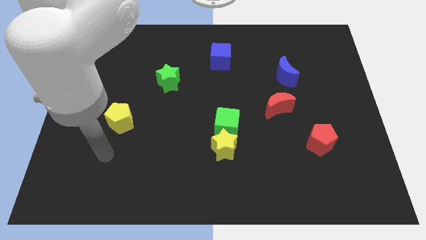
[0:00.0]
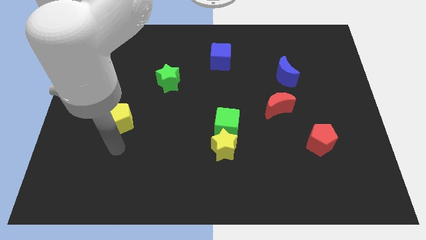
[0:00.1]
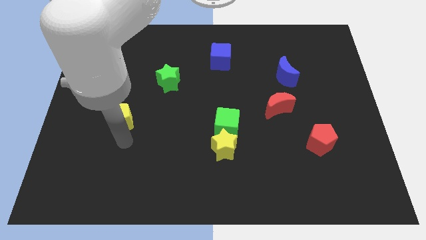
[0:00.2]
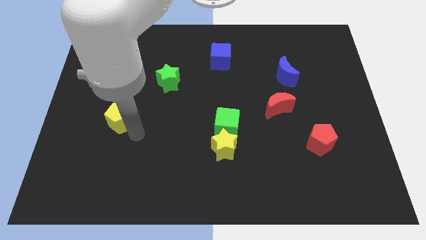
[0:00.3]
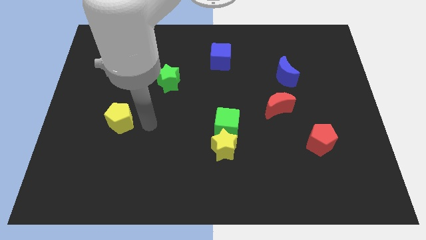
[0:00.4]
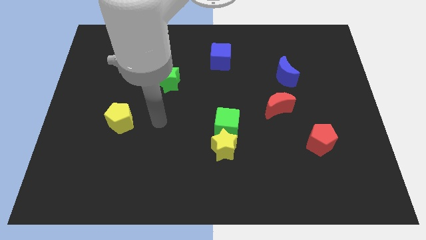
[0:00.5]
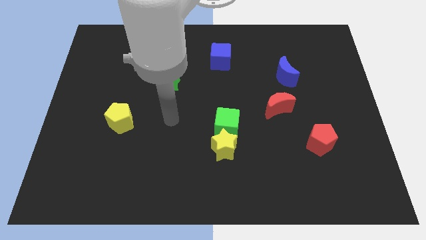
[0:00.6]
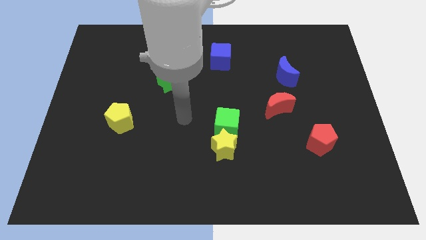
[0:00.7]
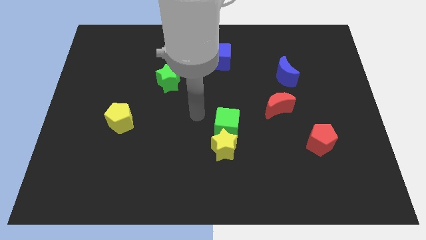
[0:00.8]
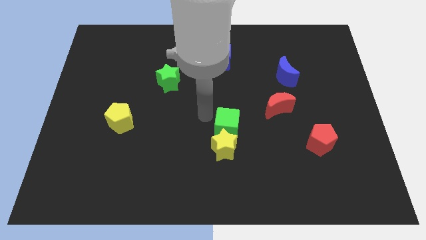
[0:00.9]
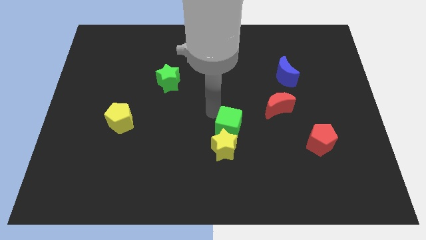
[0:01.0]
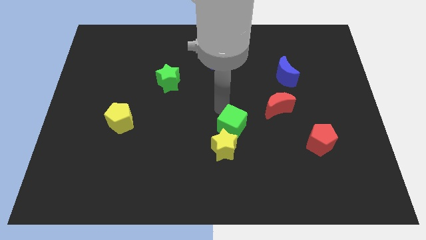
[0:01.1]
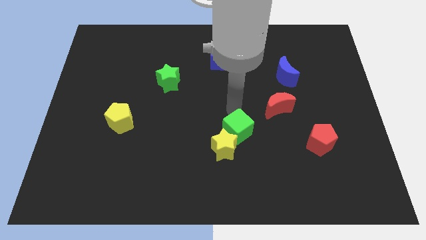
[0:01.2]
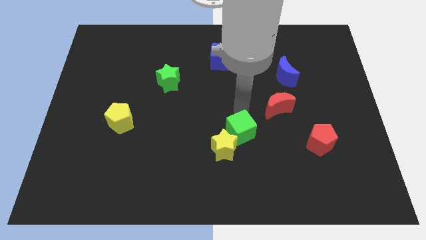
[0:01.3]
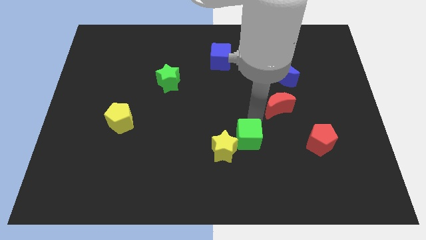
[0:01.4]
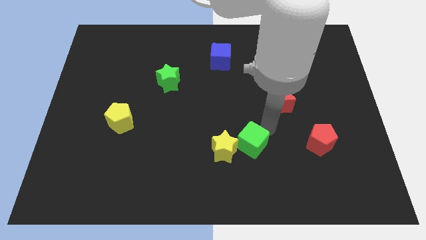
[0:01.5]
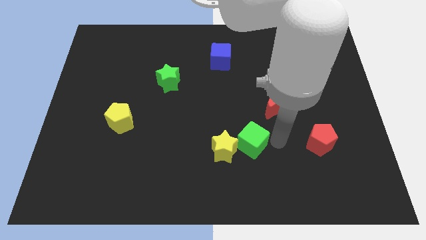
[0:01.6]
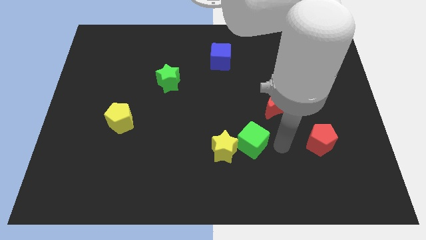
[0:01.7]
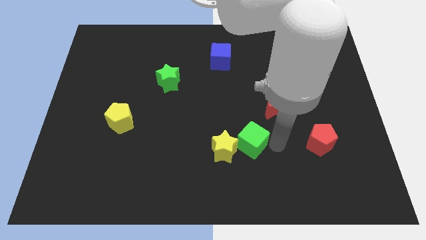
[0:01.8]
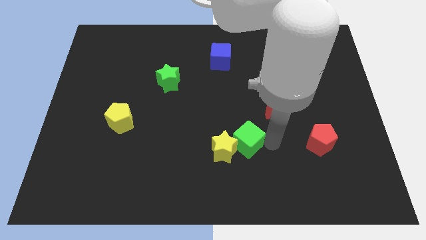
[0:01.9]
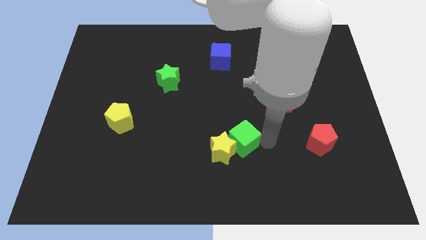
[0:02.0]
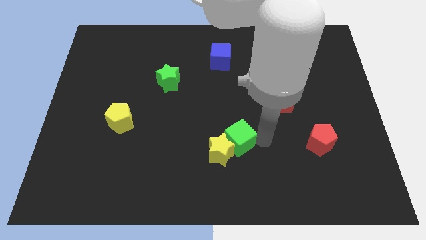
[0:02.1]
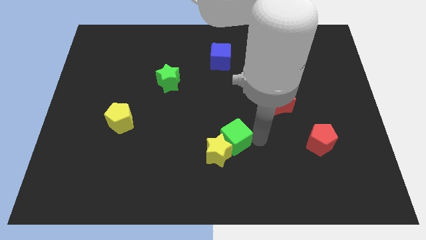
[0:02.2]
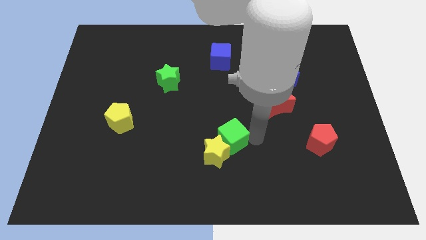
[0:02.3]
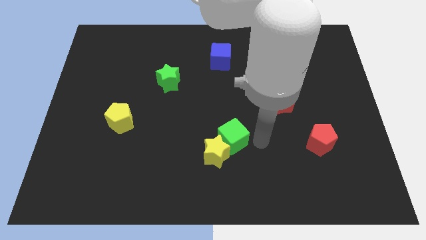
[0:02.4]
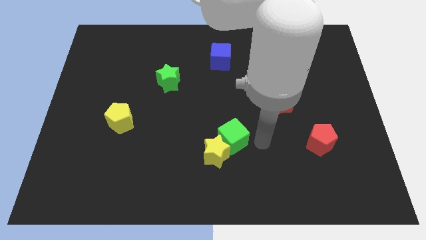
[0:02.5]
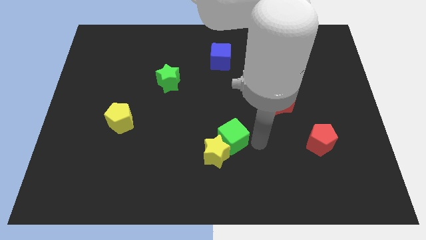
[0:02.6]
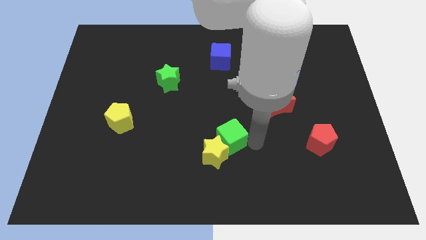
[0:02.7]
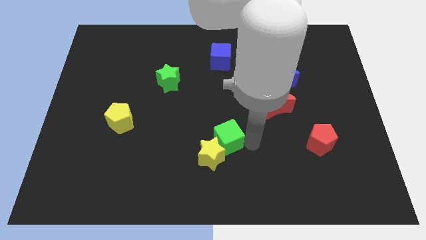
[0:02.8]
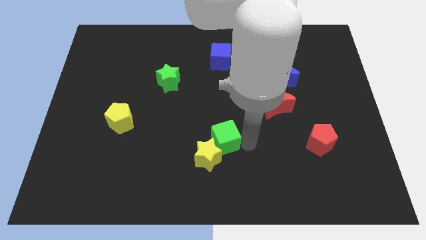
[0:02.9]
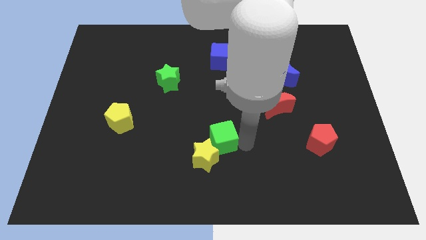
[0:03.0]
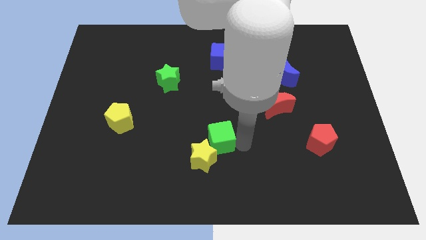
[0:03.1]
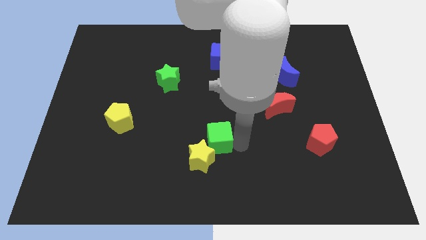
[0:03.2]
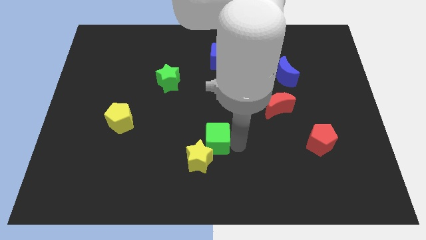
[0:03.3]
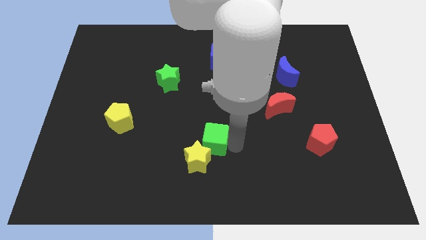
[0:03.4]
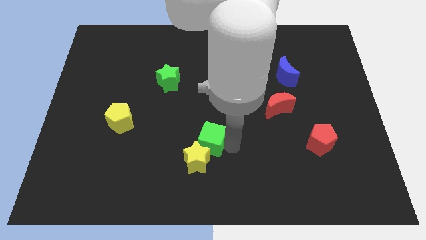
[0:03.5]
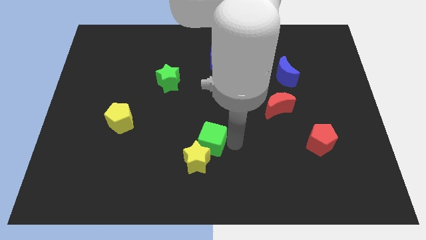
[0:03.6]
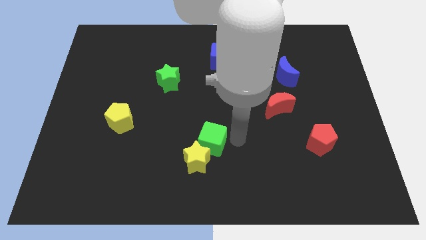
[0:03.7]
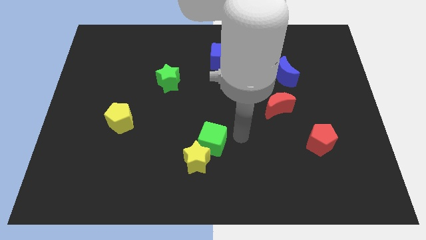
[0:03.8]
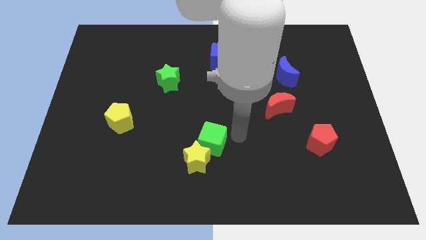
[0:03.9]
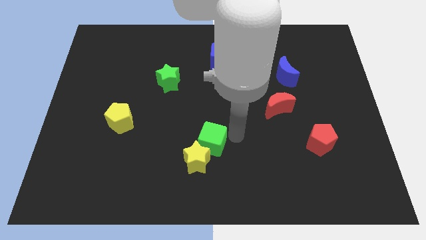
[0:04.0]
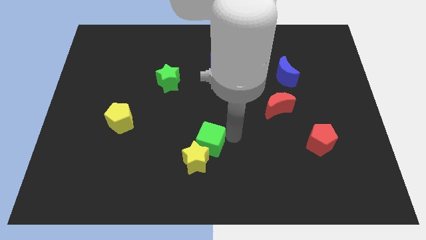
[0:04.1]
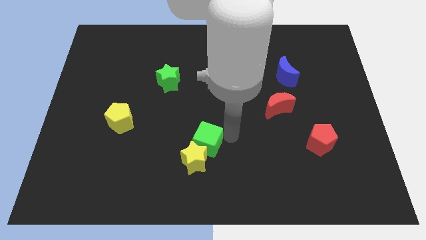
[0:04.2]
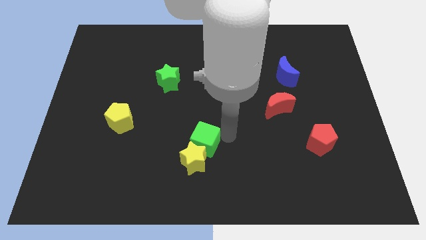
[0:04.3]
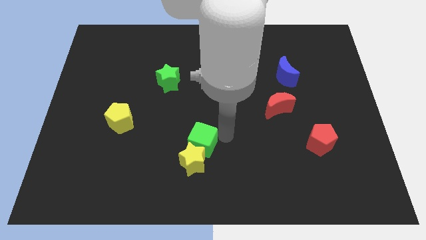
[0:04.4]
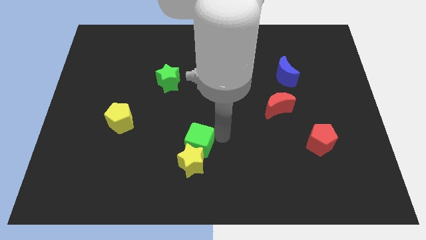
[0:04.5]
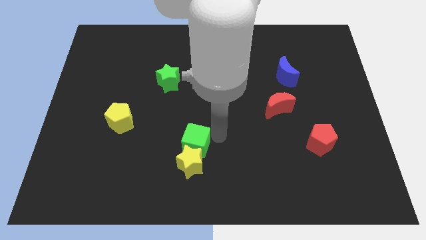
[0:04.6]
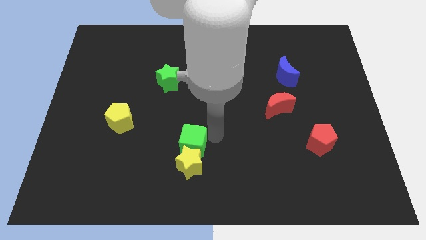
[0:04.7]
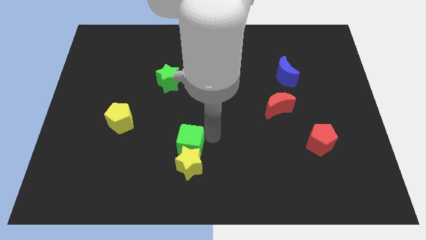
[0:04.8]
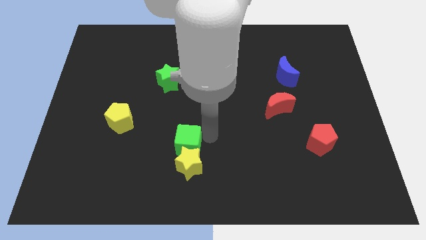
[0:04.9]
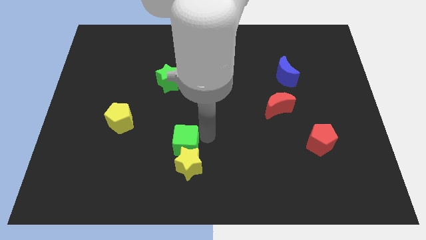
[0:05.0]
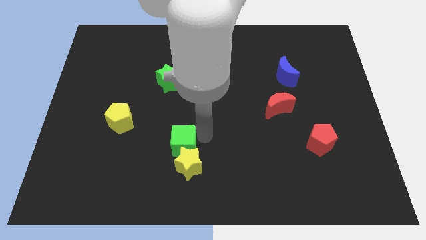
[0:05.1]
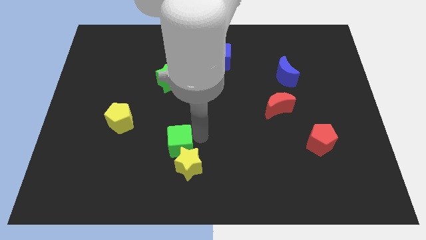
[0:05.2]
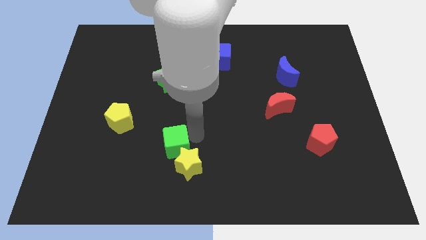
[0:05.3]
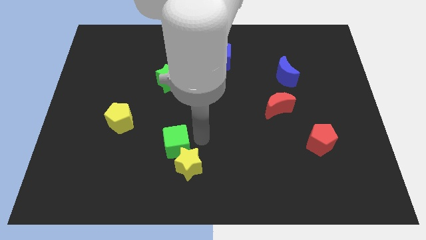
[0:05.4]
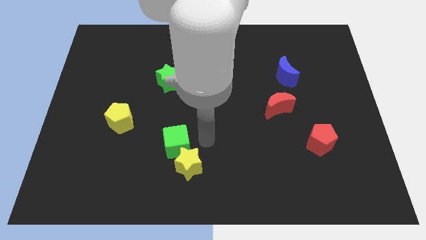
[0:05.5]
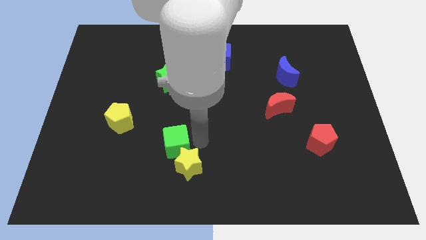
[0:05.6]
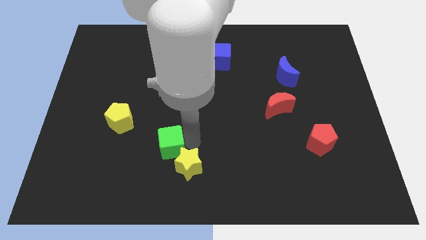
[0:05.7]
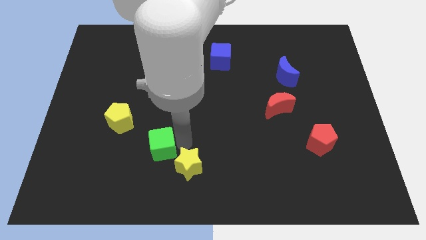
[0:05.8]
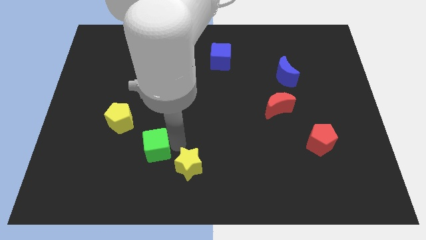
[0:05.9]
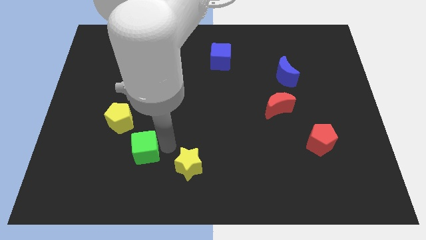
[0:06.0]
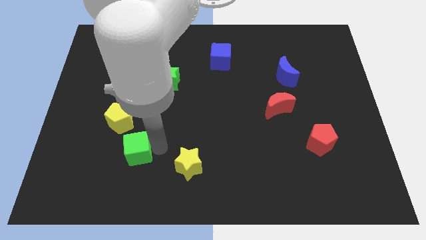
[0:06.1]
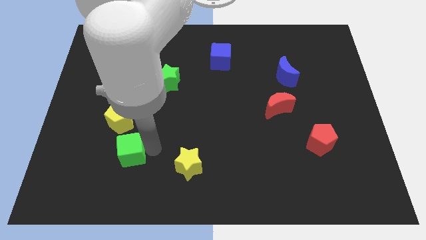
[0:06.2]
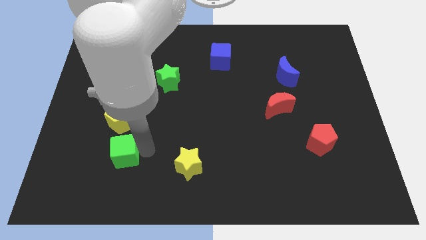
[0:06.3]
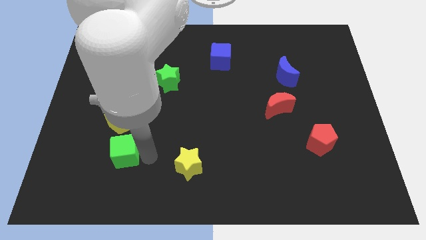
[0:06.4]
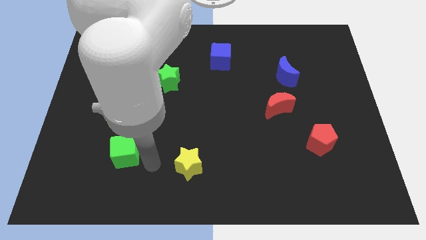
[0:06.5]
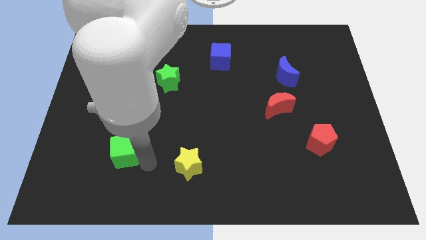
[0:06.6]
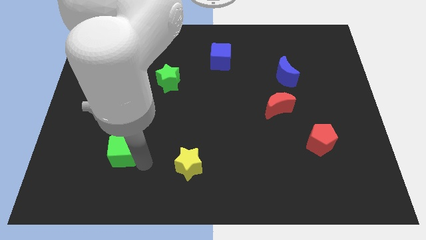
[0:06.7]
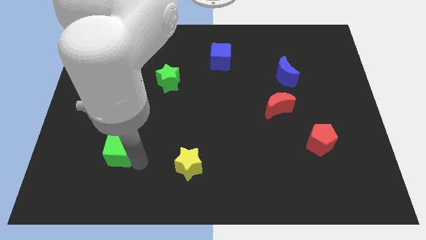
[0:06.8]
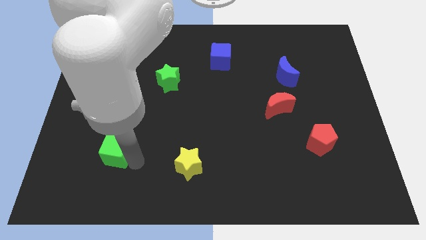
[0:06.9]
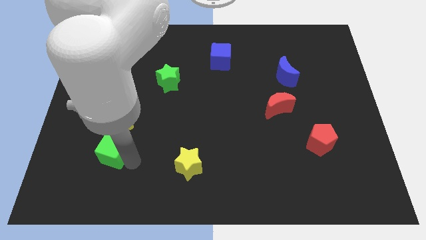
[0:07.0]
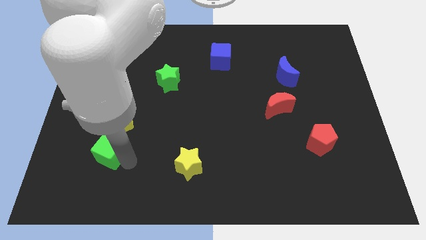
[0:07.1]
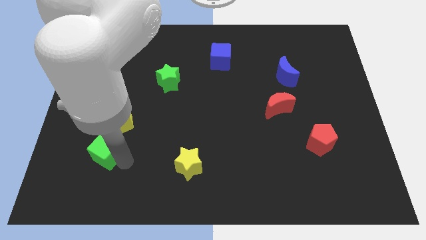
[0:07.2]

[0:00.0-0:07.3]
move the green cube to the bottom left of the yellow pentagon
